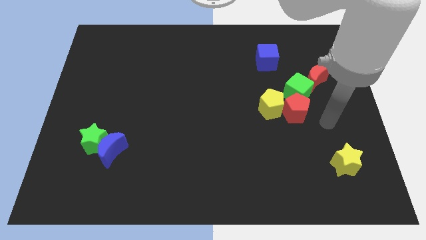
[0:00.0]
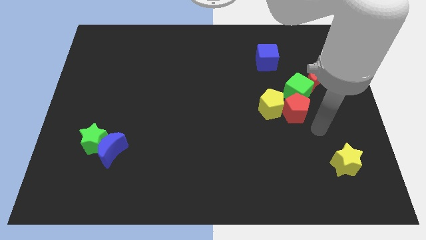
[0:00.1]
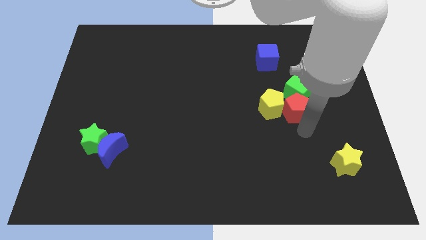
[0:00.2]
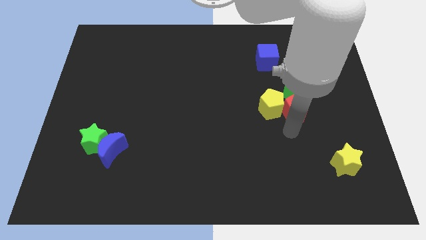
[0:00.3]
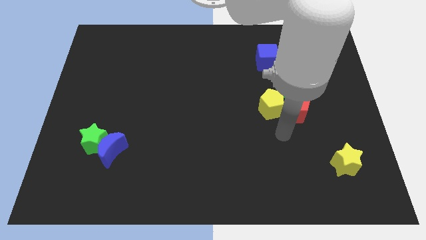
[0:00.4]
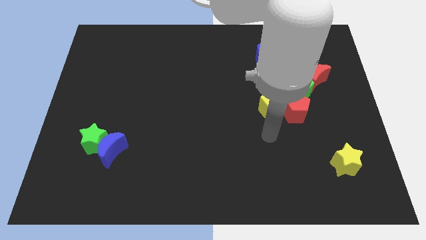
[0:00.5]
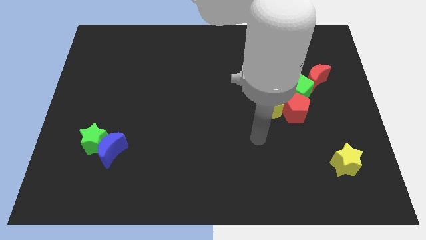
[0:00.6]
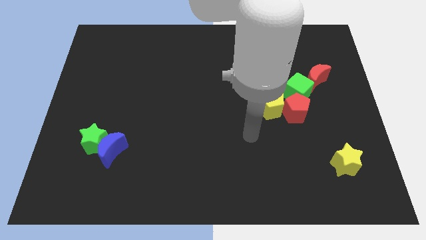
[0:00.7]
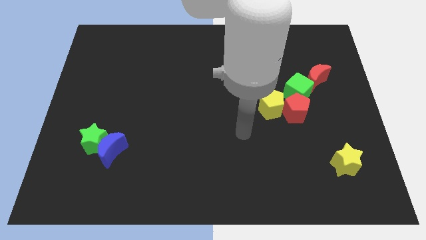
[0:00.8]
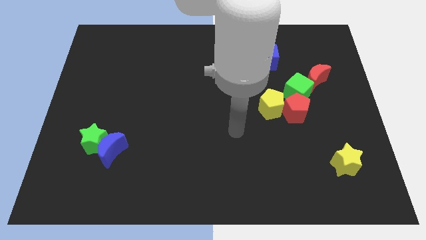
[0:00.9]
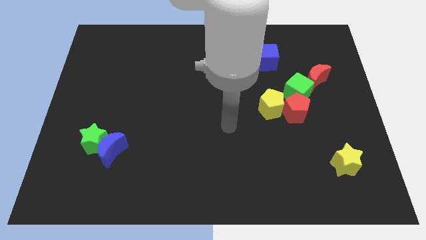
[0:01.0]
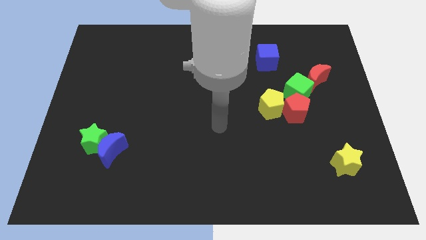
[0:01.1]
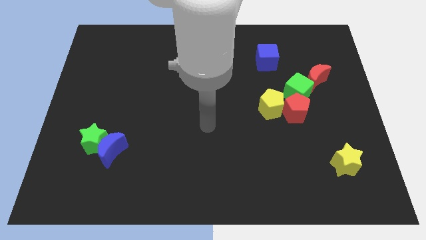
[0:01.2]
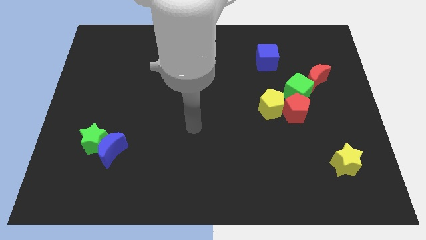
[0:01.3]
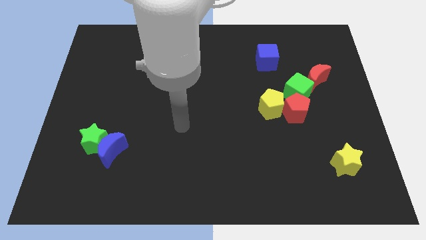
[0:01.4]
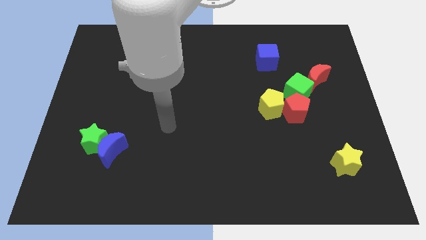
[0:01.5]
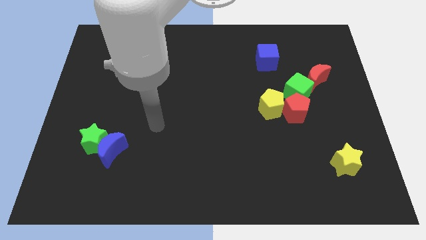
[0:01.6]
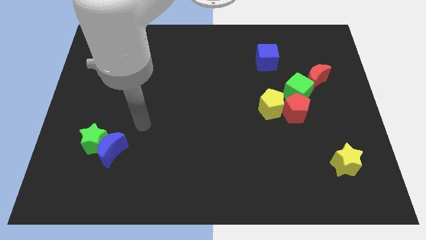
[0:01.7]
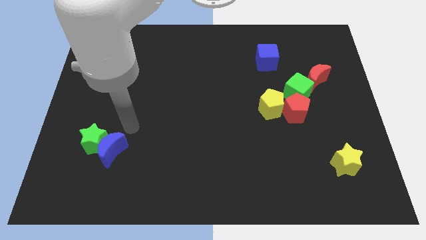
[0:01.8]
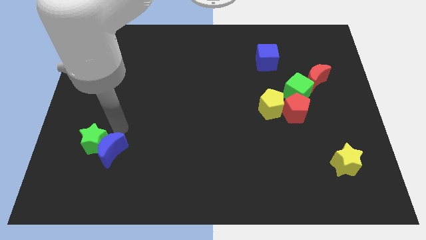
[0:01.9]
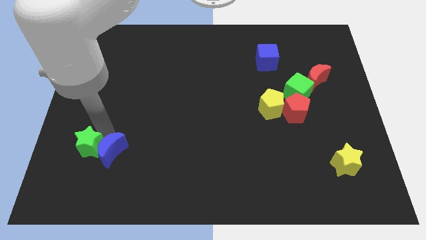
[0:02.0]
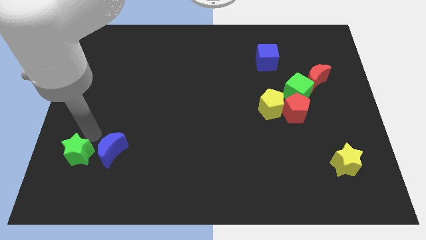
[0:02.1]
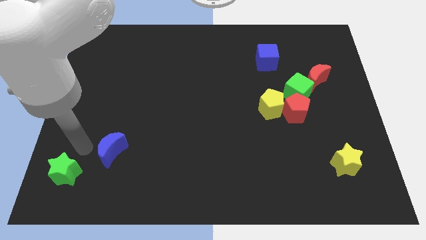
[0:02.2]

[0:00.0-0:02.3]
separate the blue moon from the green star

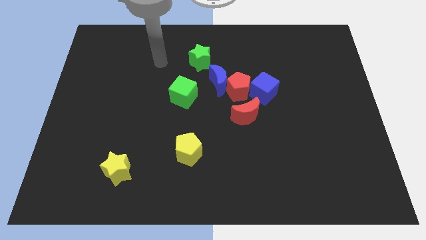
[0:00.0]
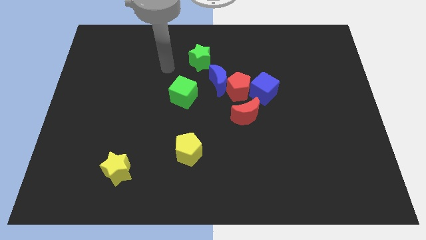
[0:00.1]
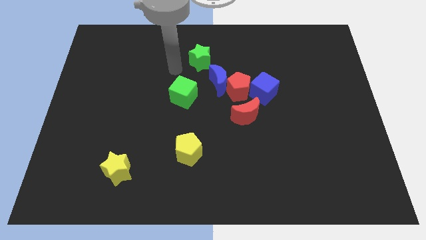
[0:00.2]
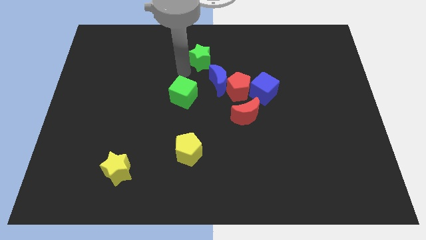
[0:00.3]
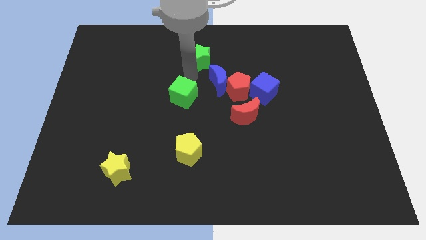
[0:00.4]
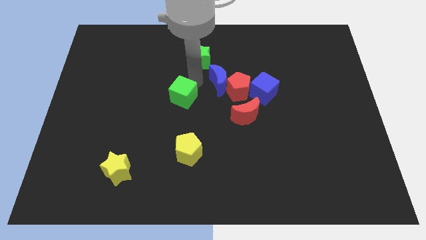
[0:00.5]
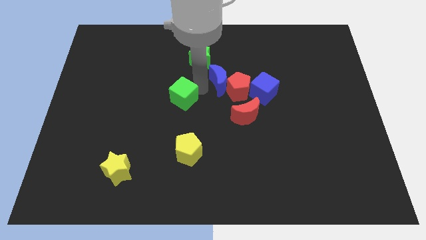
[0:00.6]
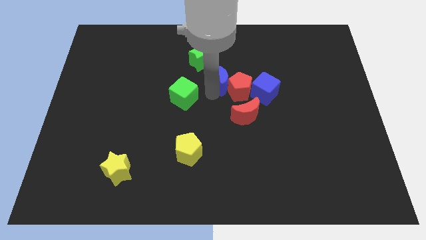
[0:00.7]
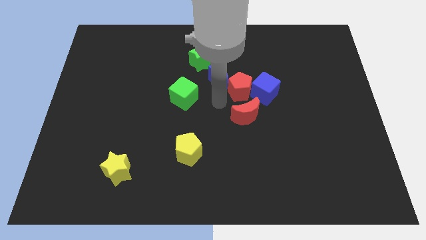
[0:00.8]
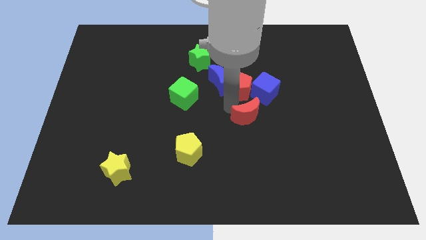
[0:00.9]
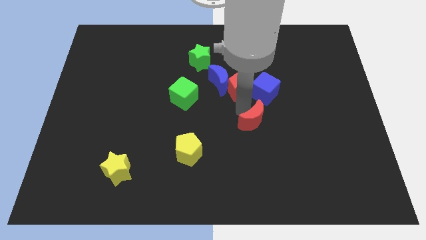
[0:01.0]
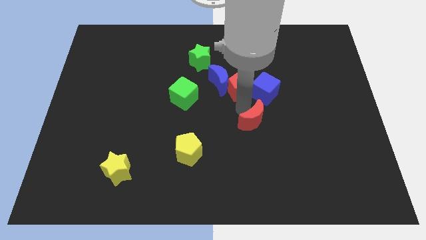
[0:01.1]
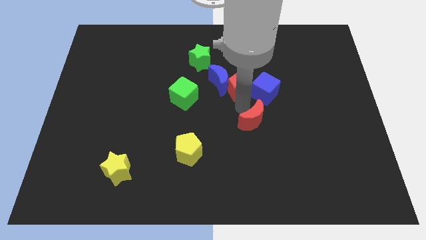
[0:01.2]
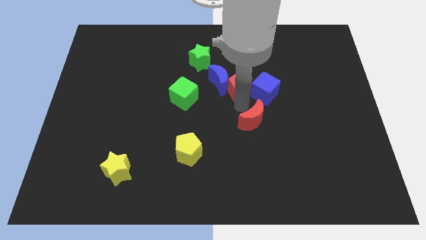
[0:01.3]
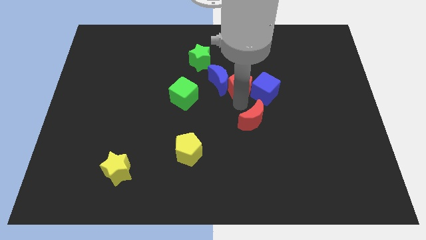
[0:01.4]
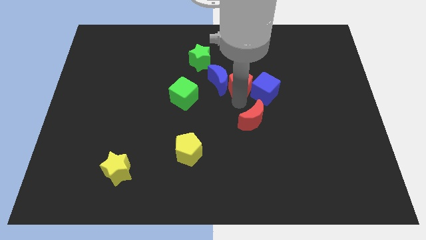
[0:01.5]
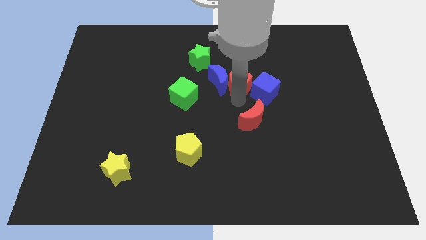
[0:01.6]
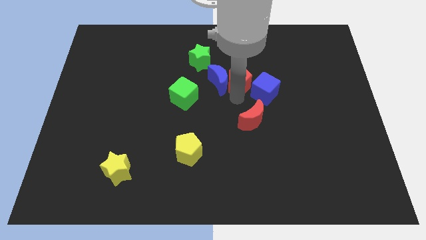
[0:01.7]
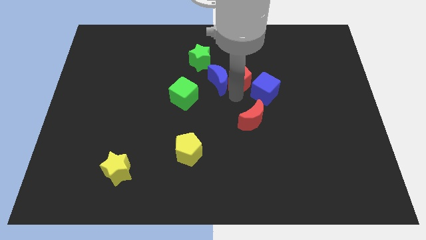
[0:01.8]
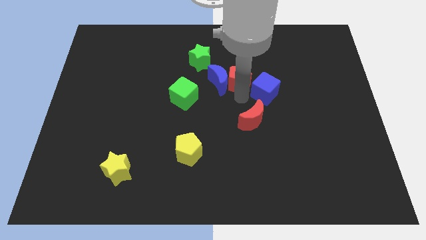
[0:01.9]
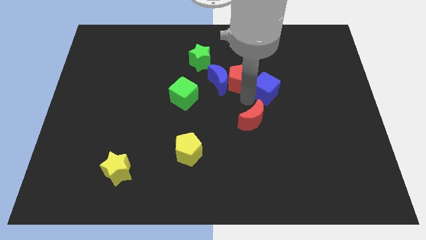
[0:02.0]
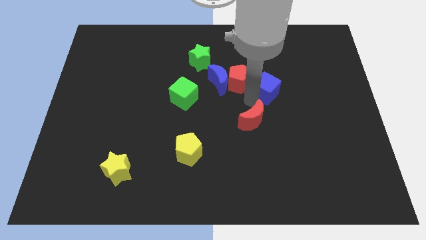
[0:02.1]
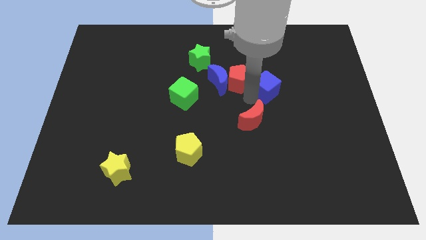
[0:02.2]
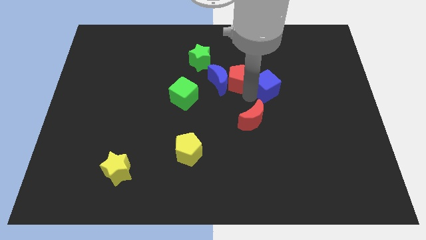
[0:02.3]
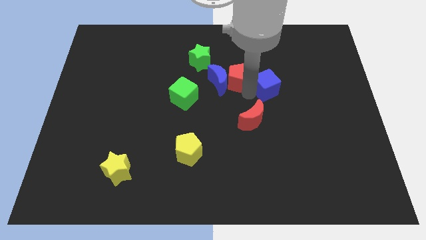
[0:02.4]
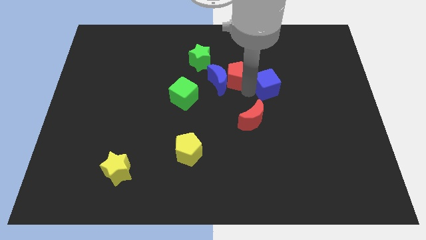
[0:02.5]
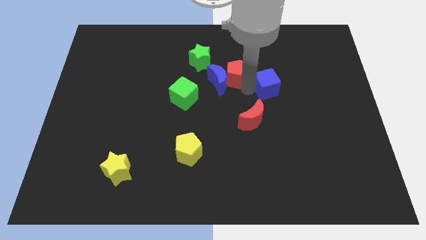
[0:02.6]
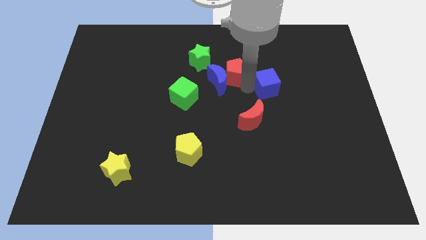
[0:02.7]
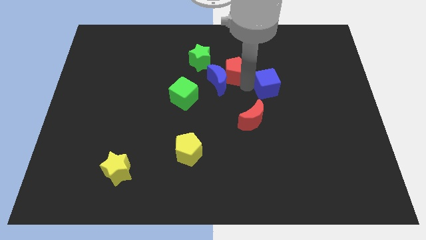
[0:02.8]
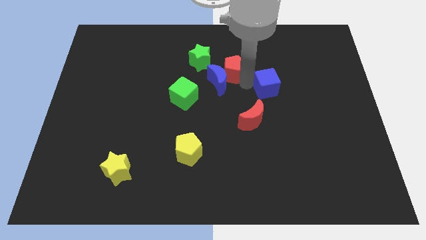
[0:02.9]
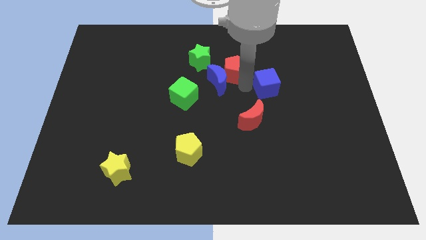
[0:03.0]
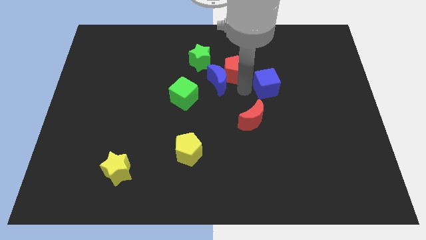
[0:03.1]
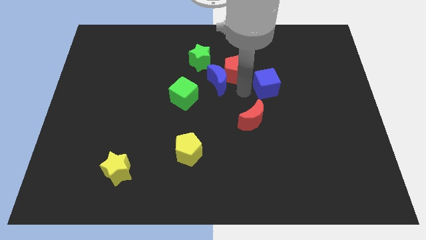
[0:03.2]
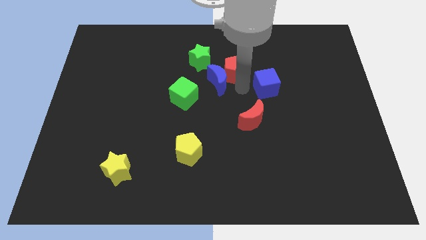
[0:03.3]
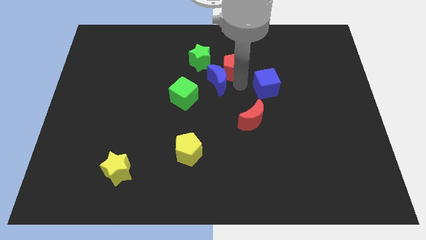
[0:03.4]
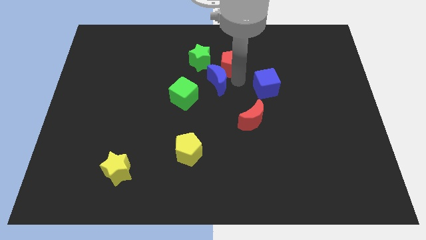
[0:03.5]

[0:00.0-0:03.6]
move the red pentagon away from the group of blocks

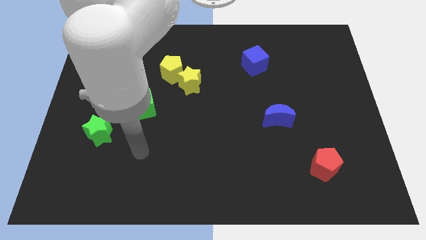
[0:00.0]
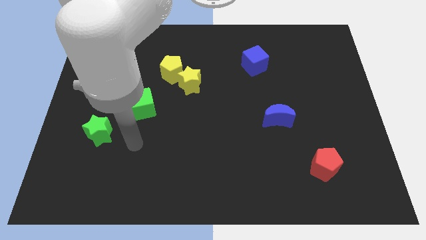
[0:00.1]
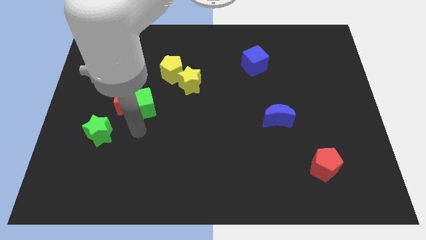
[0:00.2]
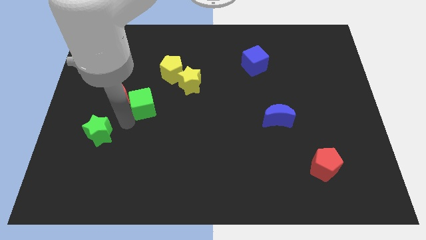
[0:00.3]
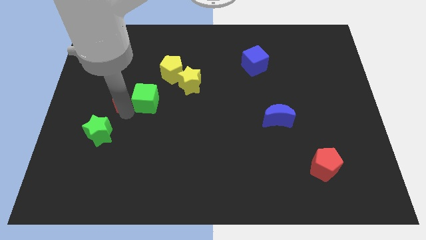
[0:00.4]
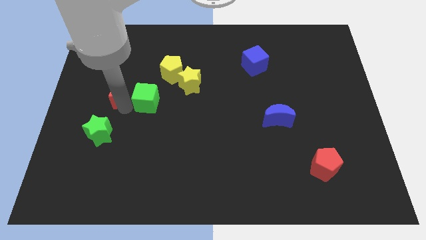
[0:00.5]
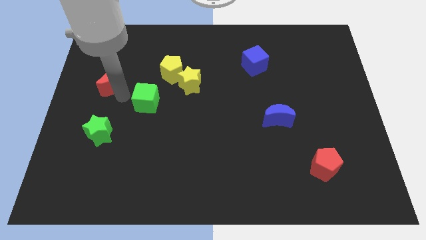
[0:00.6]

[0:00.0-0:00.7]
move the green cube away from the red moon

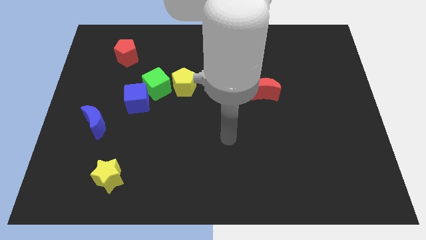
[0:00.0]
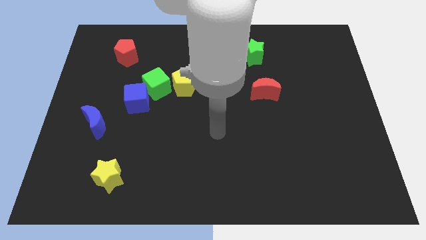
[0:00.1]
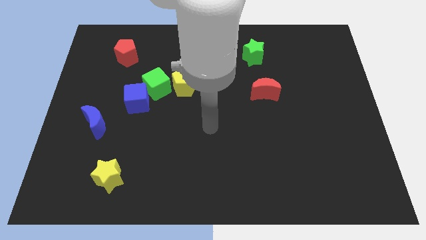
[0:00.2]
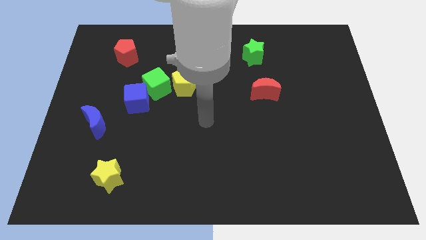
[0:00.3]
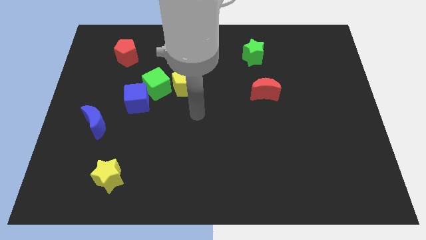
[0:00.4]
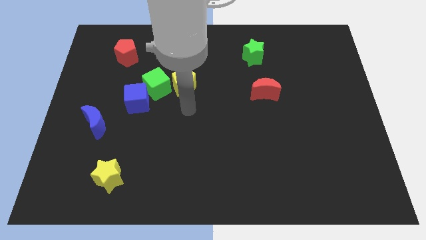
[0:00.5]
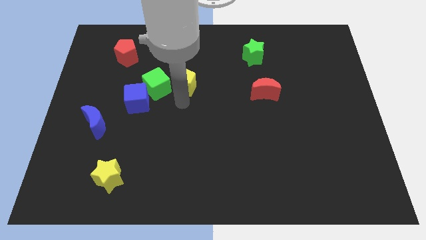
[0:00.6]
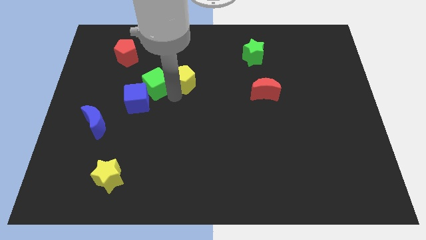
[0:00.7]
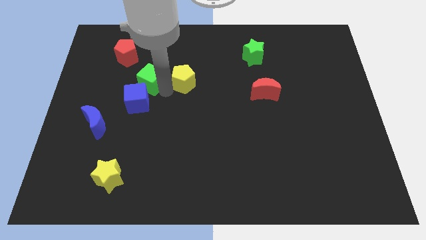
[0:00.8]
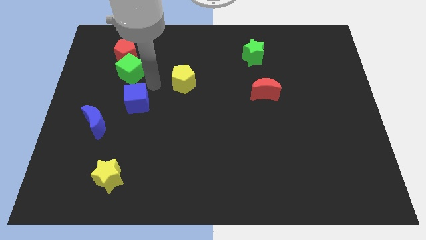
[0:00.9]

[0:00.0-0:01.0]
separate the blue cube from the green cube

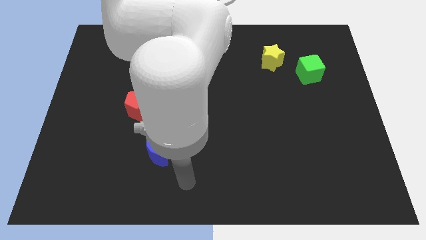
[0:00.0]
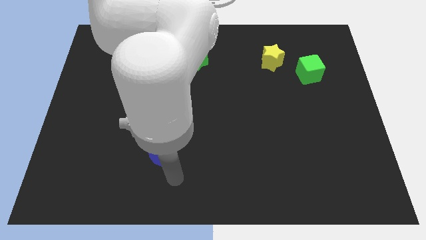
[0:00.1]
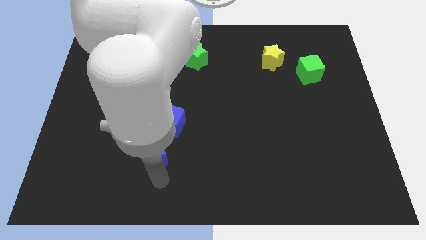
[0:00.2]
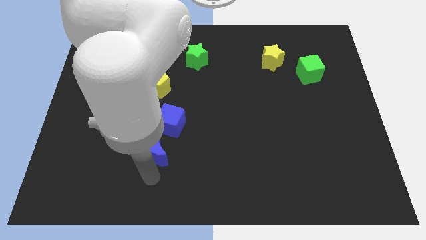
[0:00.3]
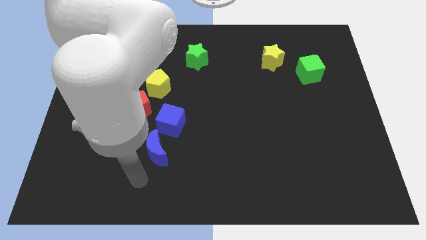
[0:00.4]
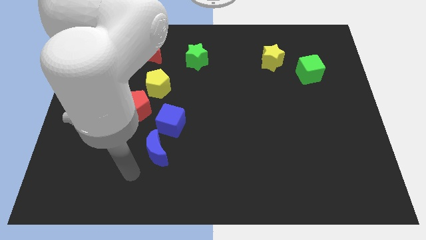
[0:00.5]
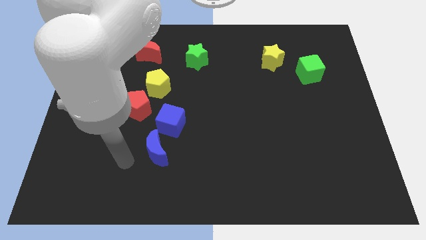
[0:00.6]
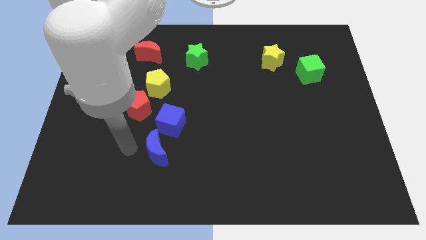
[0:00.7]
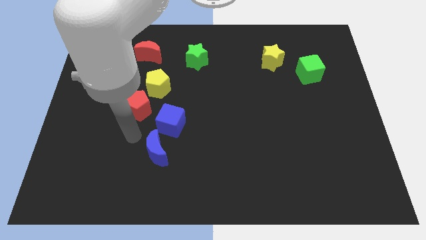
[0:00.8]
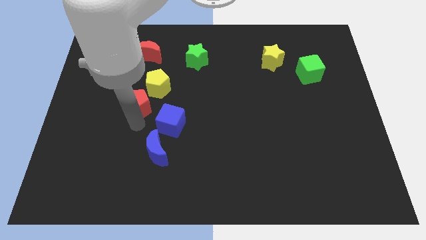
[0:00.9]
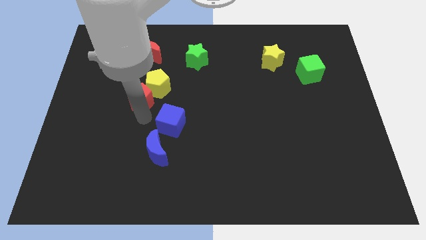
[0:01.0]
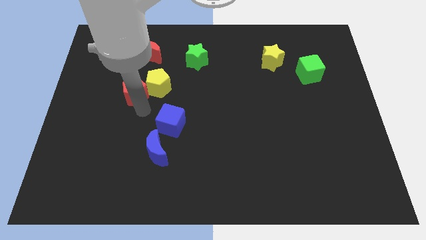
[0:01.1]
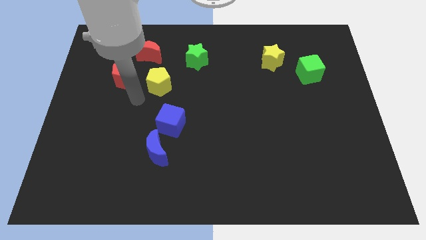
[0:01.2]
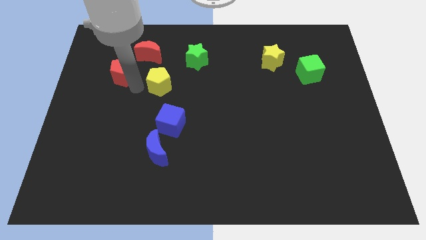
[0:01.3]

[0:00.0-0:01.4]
move the yellow pentagon away from the red pentagon

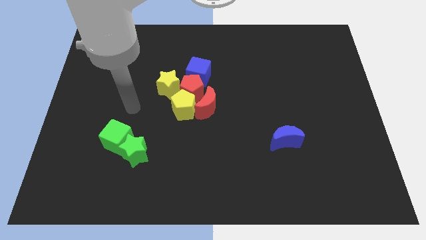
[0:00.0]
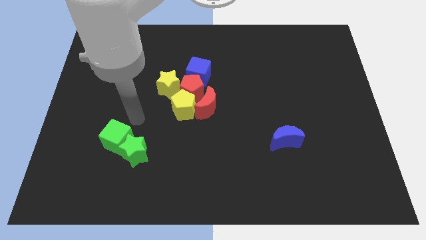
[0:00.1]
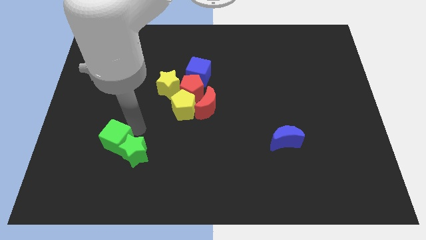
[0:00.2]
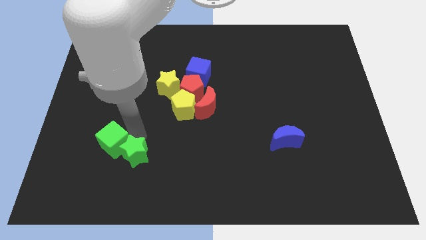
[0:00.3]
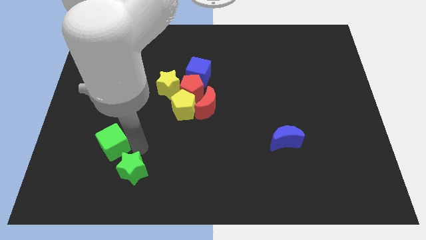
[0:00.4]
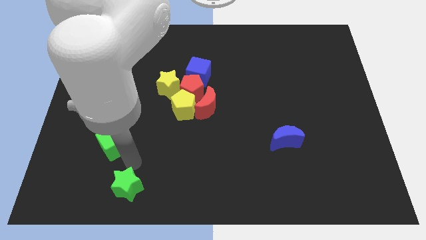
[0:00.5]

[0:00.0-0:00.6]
pull the green cube apart from the green star
